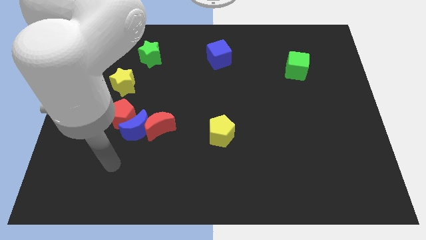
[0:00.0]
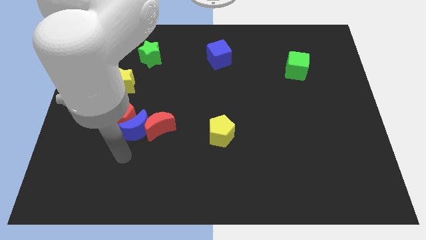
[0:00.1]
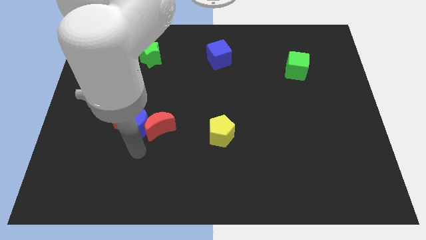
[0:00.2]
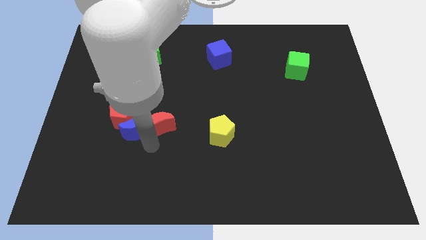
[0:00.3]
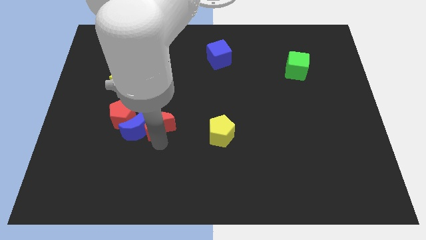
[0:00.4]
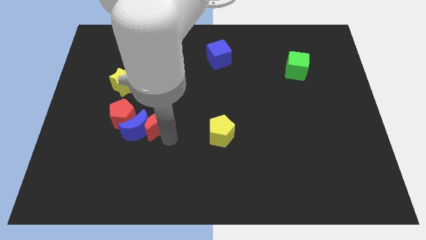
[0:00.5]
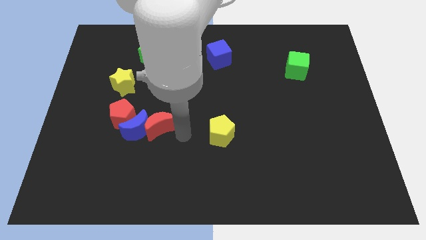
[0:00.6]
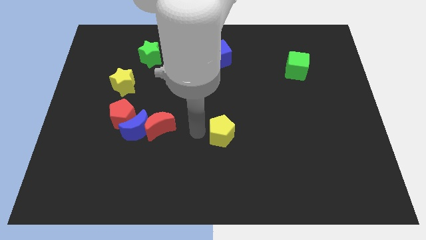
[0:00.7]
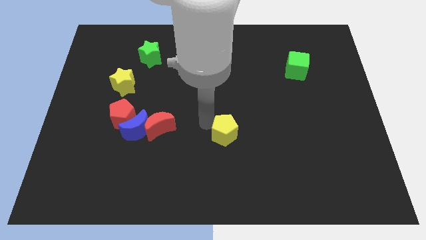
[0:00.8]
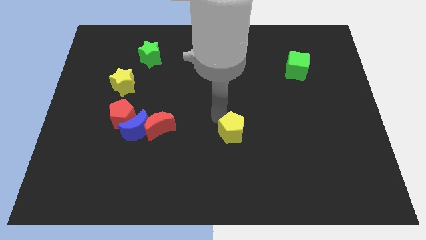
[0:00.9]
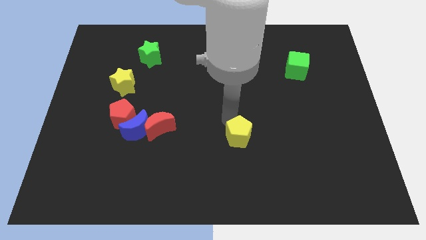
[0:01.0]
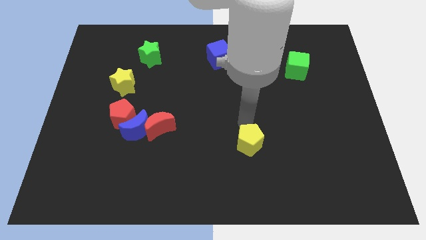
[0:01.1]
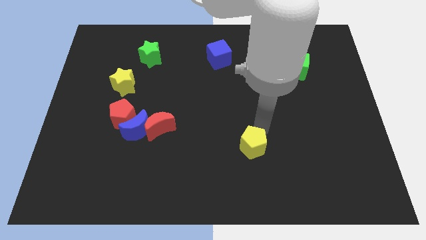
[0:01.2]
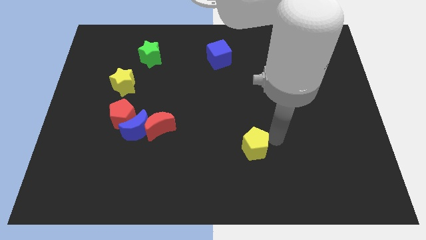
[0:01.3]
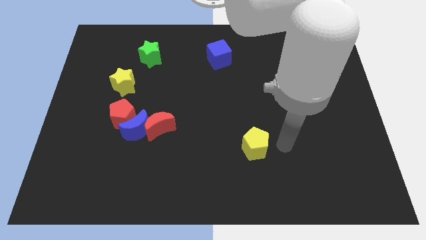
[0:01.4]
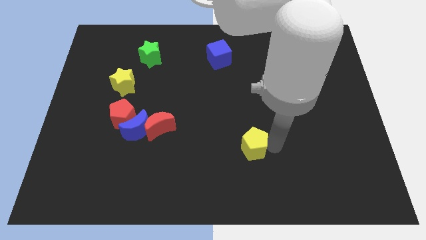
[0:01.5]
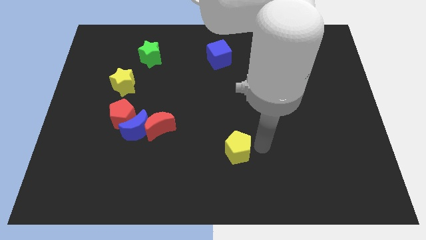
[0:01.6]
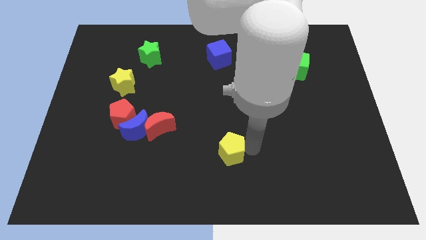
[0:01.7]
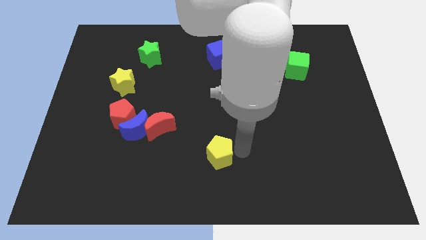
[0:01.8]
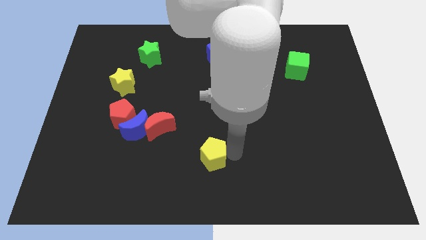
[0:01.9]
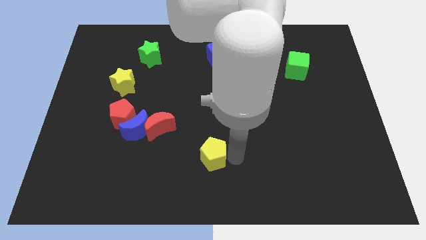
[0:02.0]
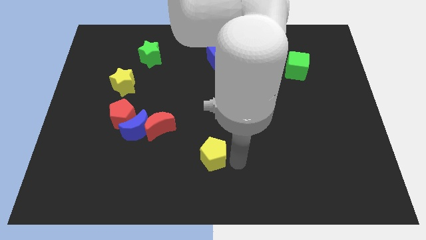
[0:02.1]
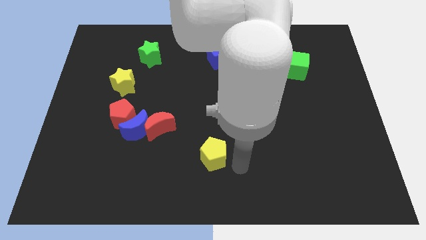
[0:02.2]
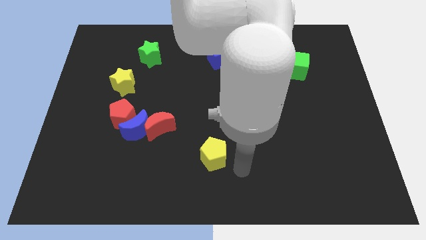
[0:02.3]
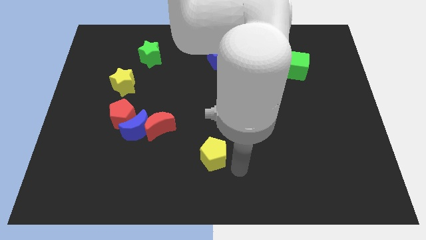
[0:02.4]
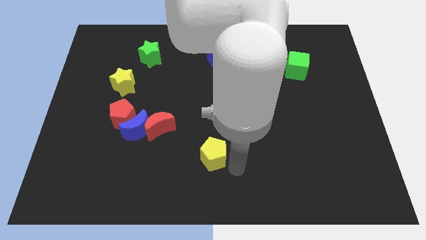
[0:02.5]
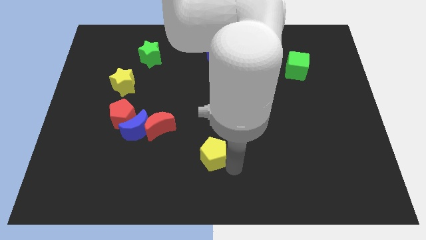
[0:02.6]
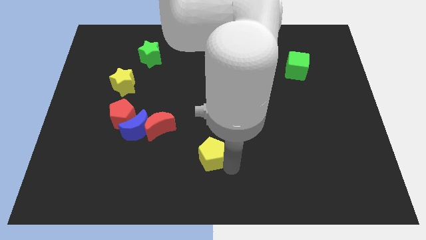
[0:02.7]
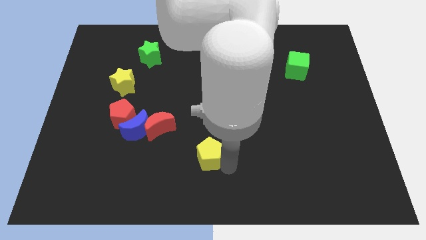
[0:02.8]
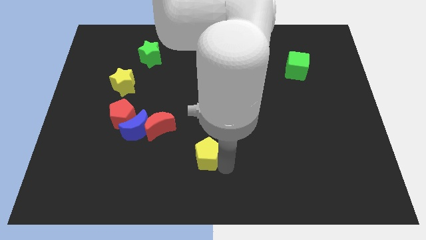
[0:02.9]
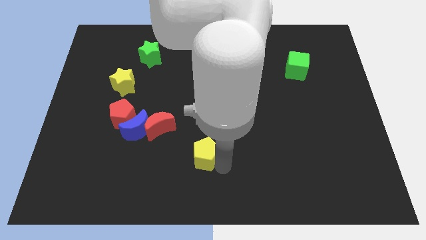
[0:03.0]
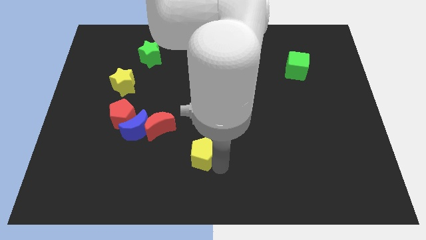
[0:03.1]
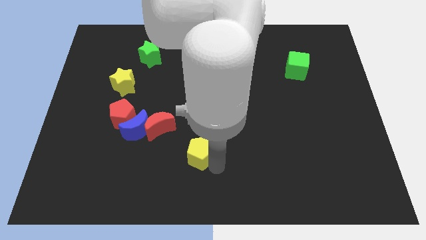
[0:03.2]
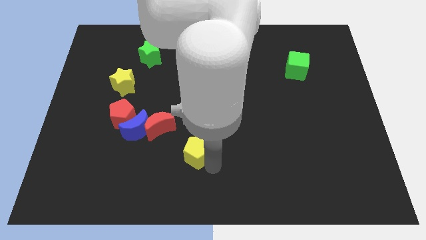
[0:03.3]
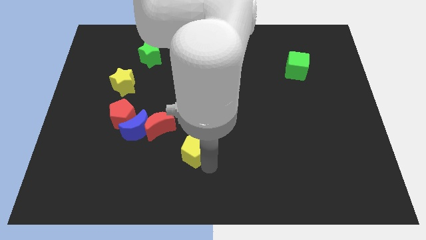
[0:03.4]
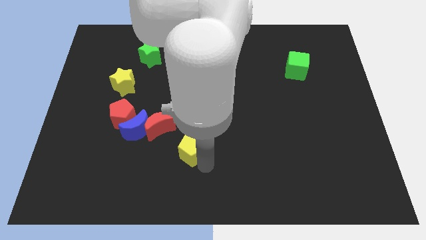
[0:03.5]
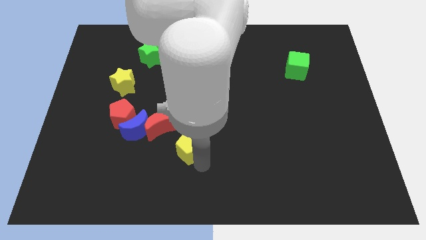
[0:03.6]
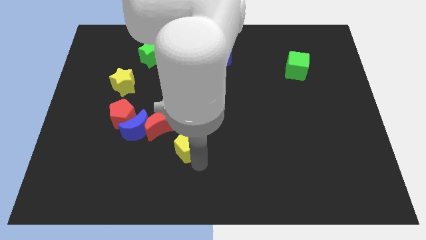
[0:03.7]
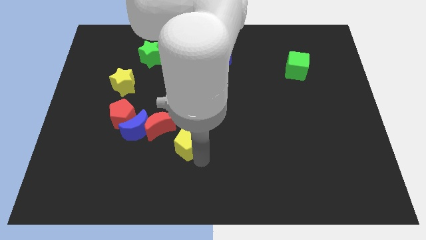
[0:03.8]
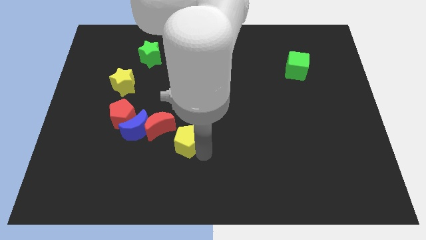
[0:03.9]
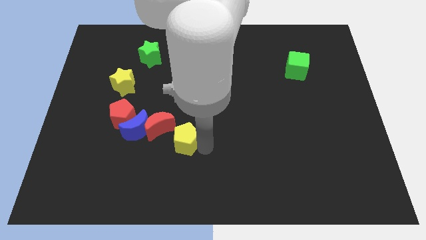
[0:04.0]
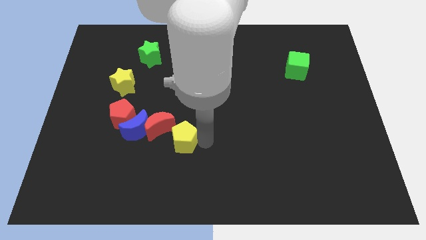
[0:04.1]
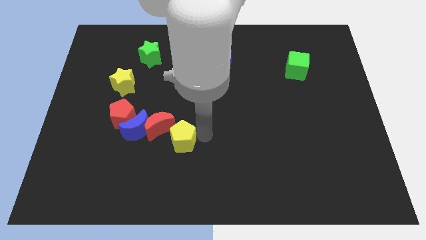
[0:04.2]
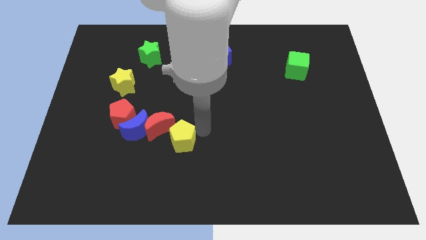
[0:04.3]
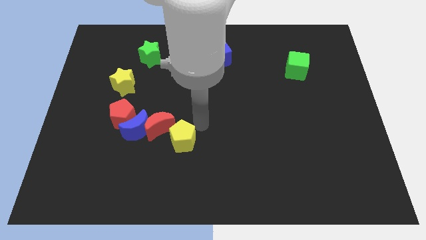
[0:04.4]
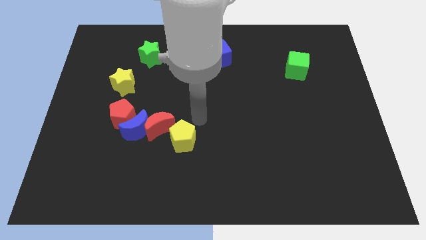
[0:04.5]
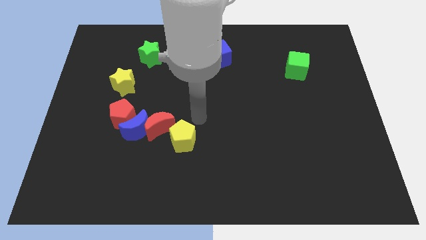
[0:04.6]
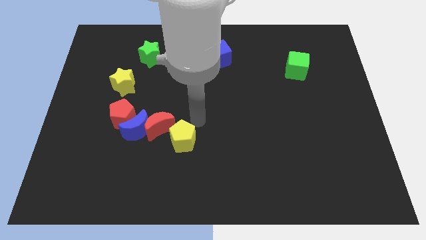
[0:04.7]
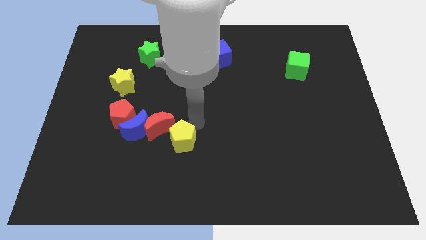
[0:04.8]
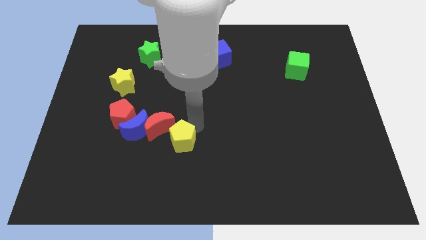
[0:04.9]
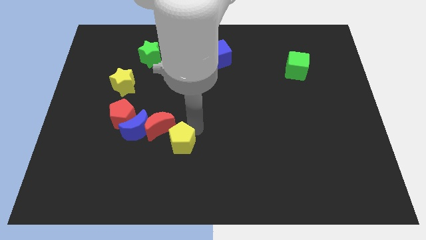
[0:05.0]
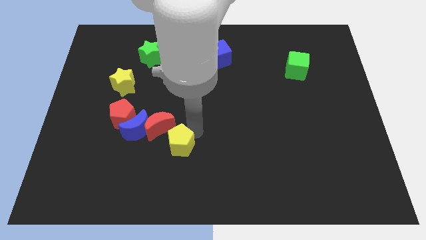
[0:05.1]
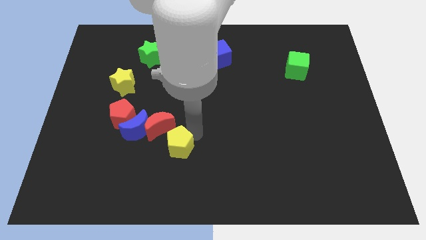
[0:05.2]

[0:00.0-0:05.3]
push the yellow pentagon to the bottom side of the red moon

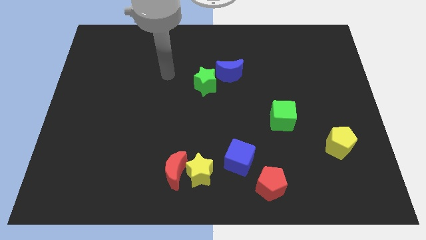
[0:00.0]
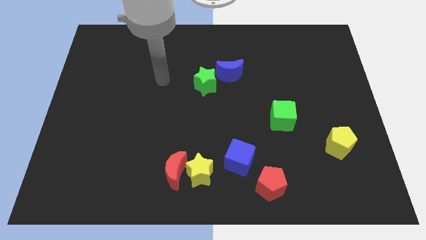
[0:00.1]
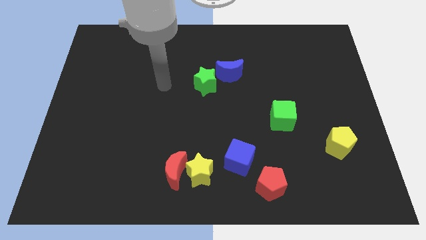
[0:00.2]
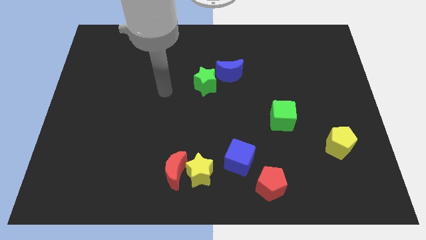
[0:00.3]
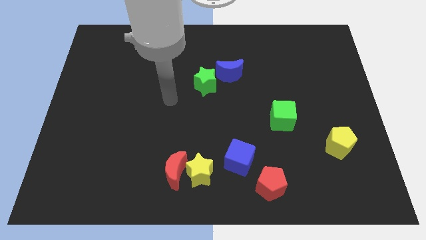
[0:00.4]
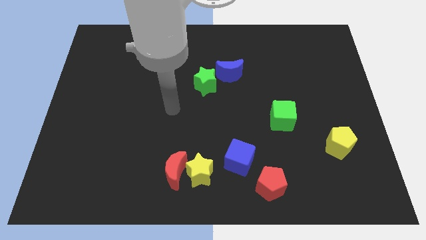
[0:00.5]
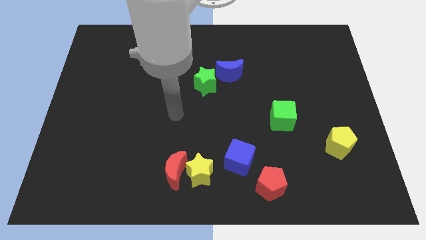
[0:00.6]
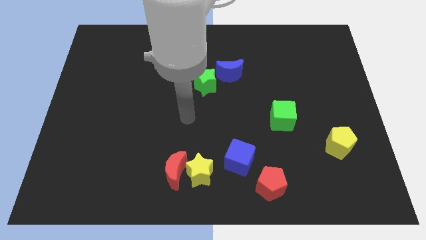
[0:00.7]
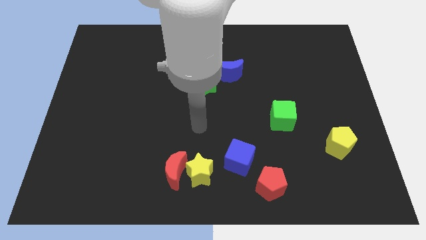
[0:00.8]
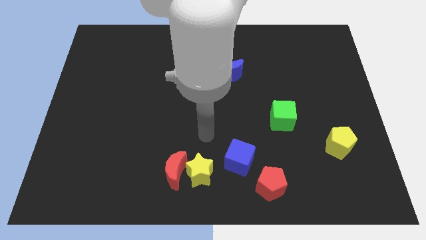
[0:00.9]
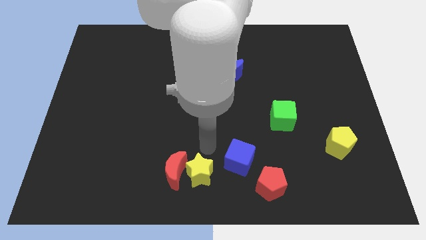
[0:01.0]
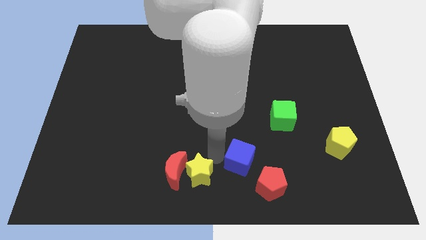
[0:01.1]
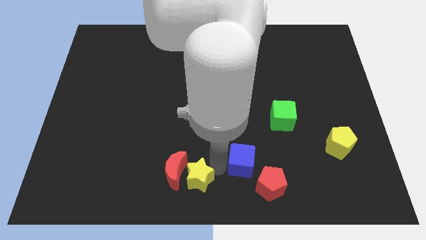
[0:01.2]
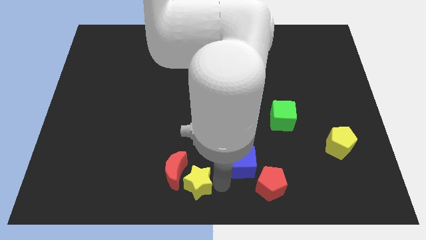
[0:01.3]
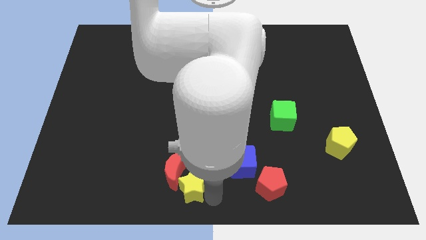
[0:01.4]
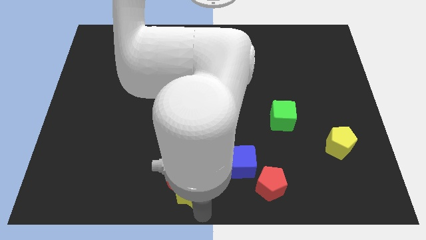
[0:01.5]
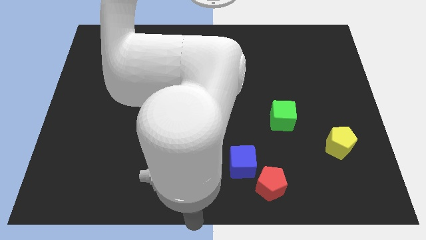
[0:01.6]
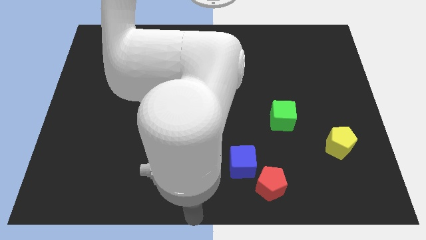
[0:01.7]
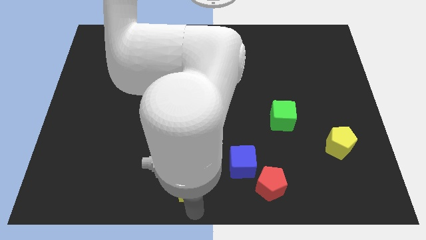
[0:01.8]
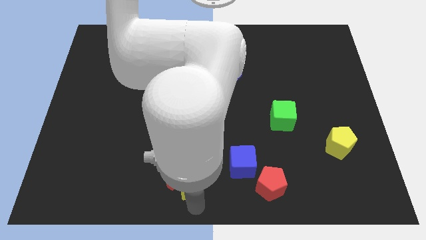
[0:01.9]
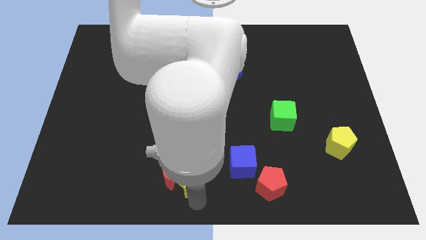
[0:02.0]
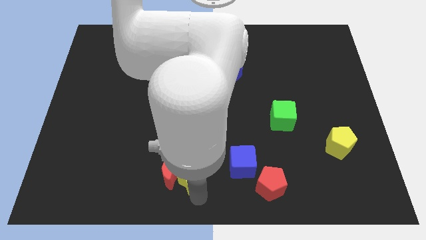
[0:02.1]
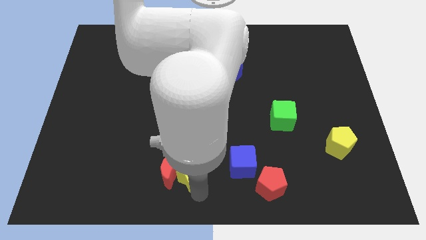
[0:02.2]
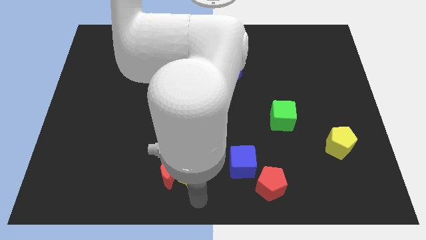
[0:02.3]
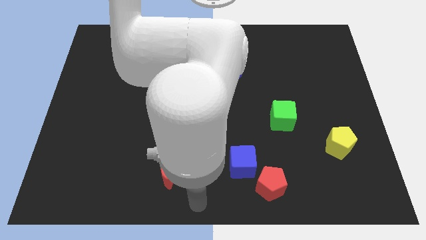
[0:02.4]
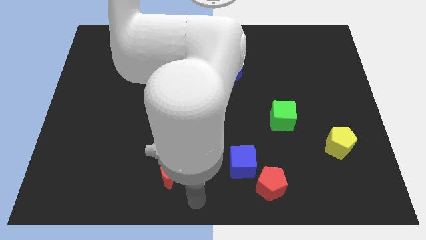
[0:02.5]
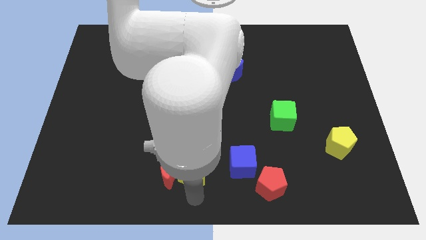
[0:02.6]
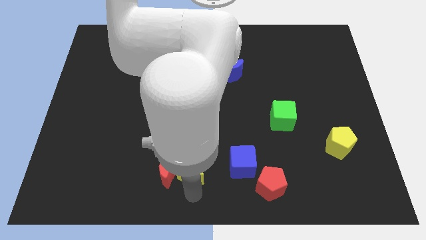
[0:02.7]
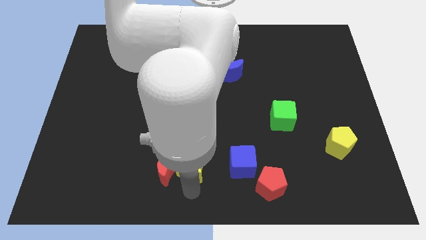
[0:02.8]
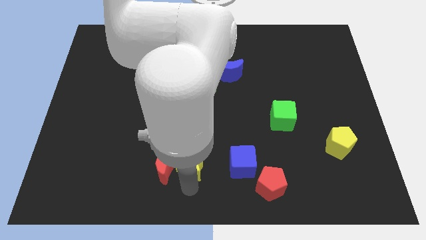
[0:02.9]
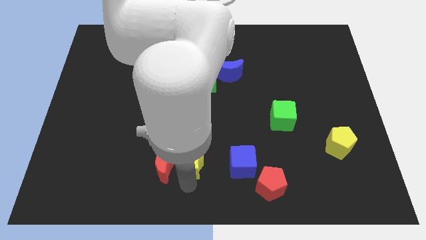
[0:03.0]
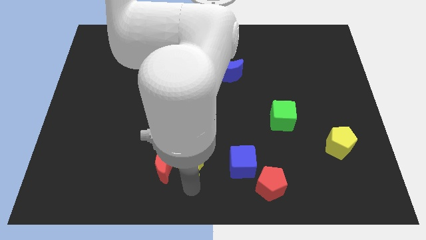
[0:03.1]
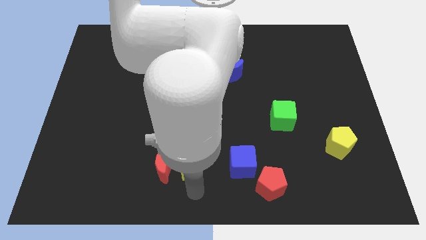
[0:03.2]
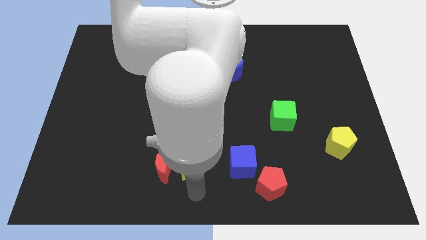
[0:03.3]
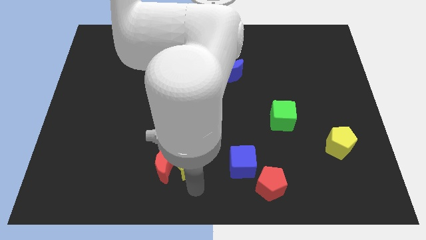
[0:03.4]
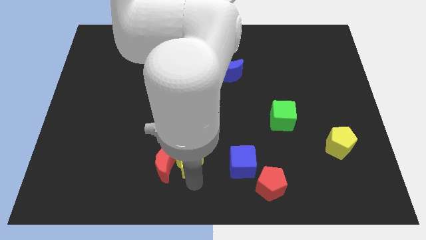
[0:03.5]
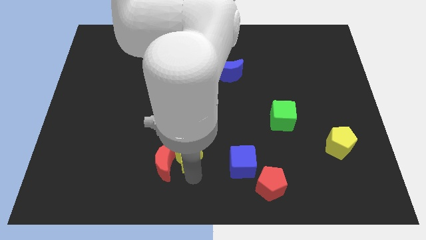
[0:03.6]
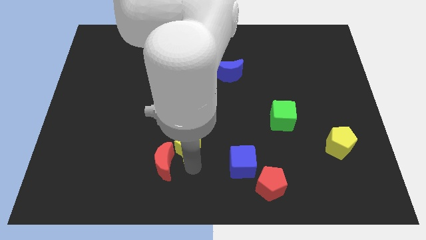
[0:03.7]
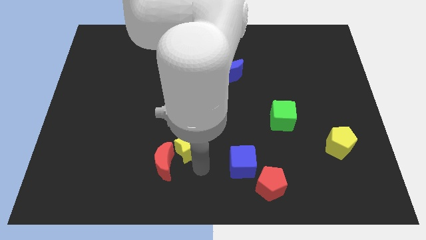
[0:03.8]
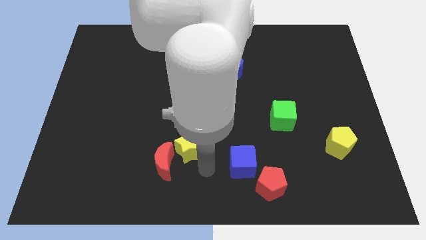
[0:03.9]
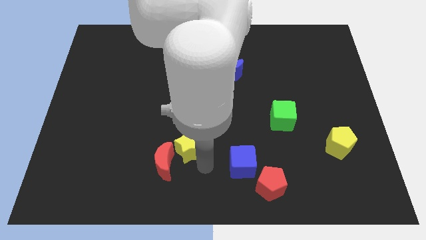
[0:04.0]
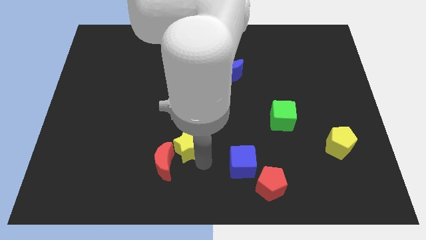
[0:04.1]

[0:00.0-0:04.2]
slide the yellow star to the top of the red moon
